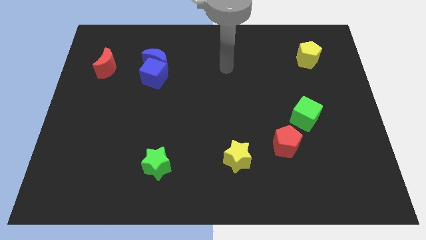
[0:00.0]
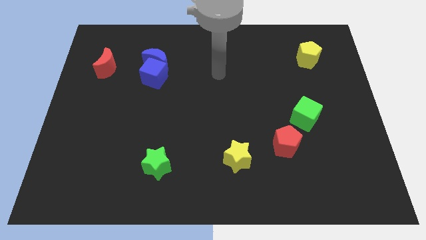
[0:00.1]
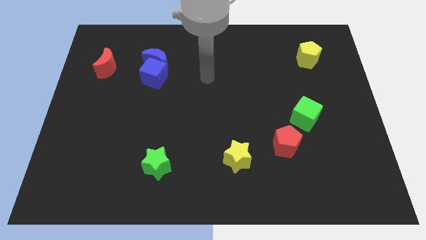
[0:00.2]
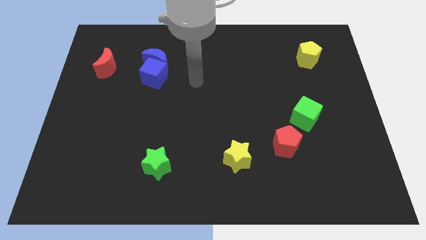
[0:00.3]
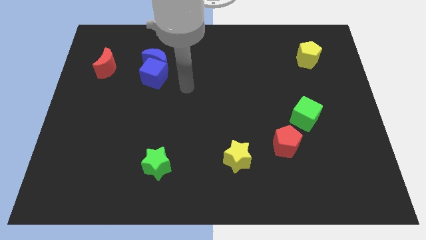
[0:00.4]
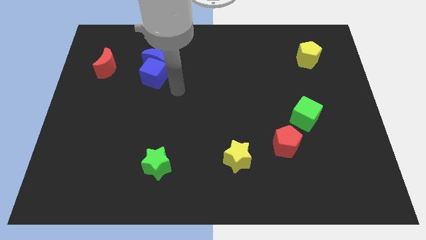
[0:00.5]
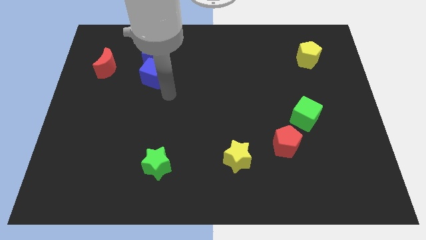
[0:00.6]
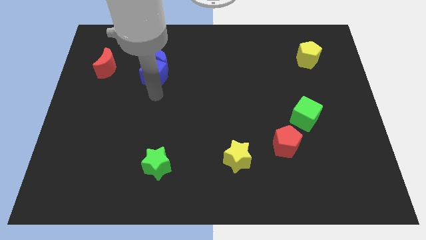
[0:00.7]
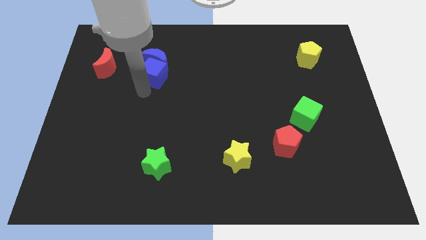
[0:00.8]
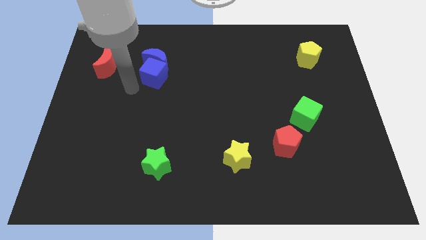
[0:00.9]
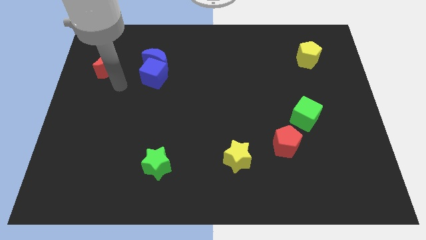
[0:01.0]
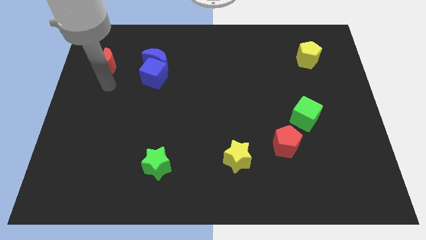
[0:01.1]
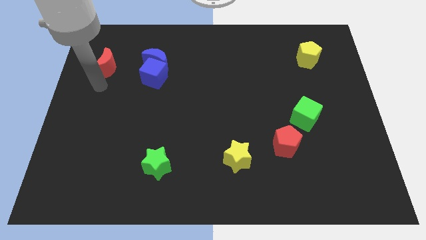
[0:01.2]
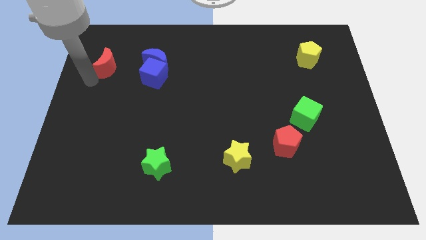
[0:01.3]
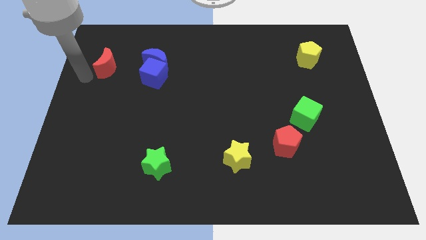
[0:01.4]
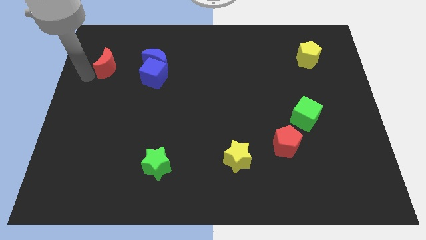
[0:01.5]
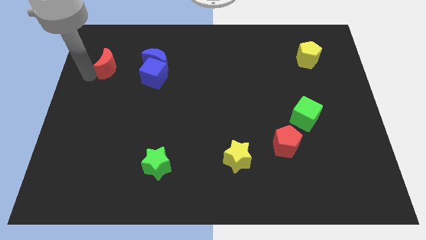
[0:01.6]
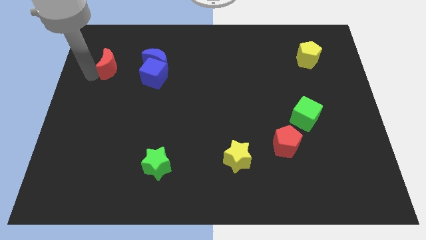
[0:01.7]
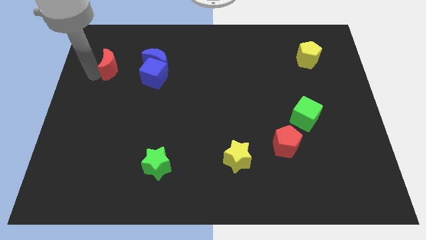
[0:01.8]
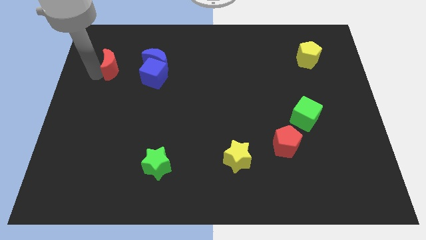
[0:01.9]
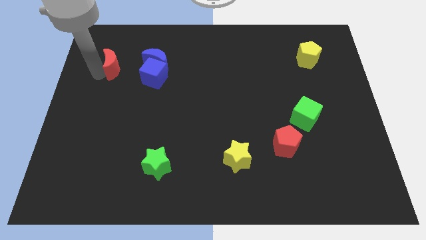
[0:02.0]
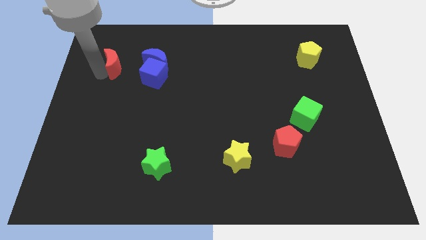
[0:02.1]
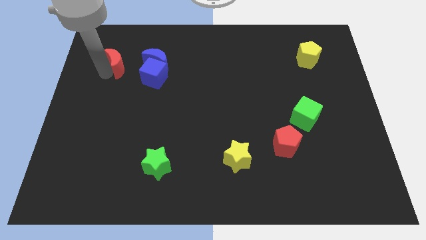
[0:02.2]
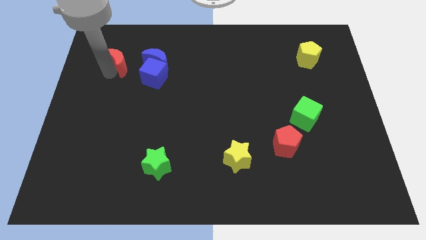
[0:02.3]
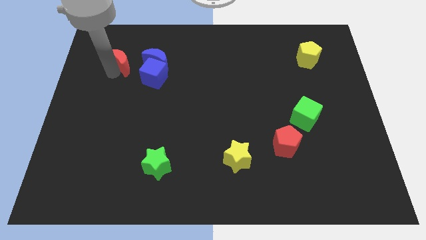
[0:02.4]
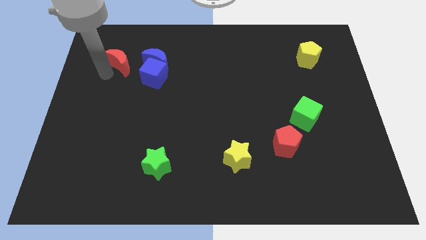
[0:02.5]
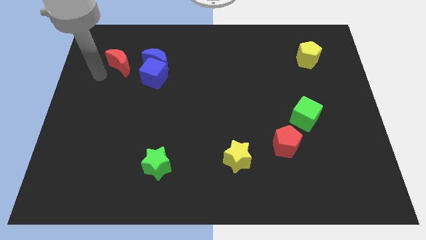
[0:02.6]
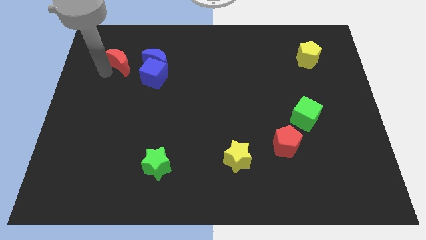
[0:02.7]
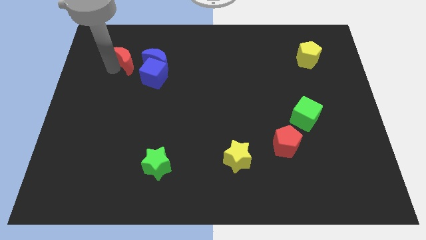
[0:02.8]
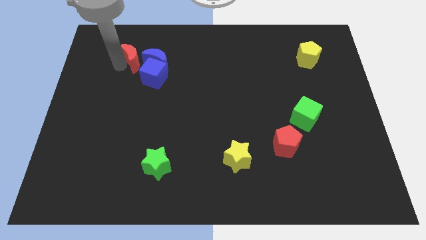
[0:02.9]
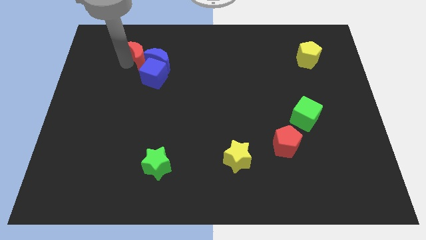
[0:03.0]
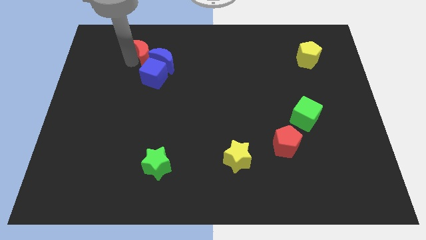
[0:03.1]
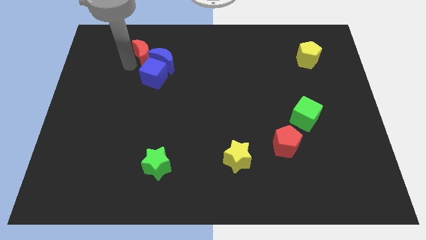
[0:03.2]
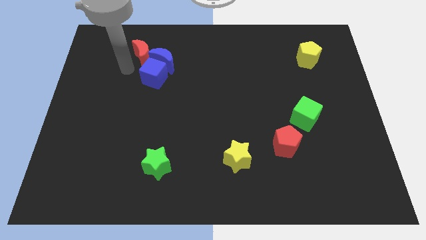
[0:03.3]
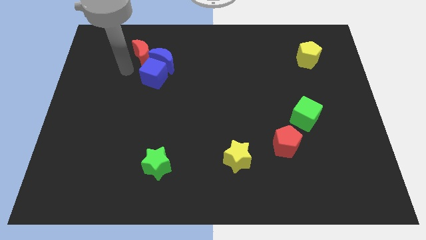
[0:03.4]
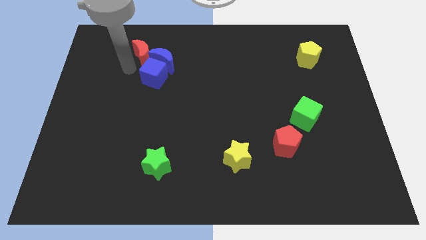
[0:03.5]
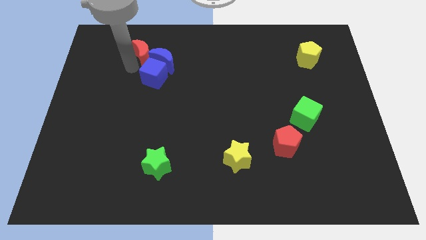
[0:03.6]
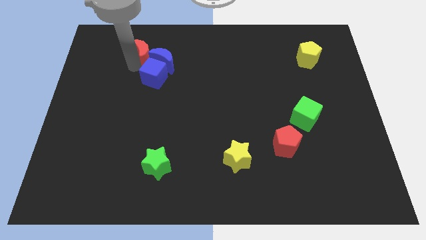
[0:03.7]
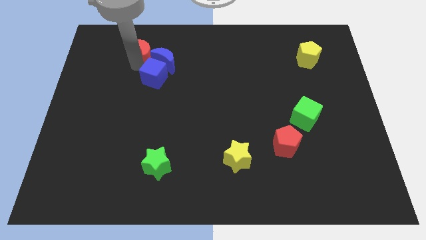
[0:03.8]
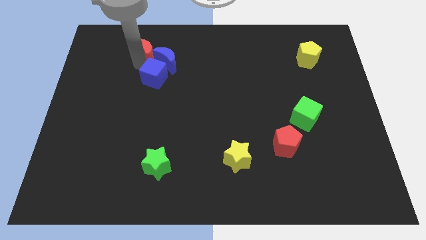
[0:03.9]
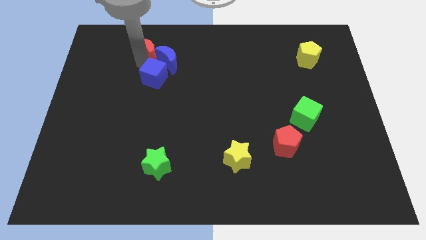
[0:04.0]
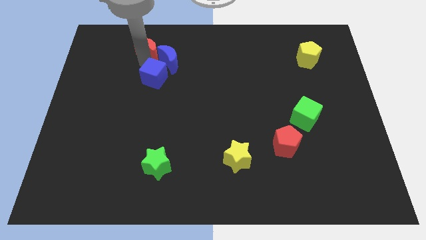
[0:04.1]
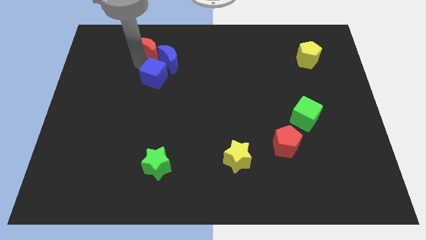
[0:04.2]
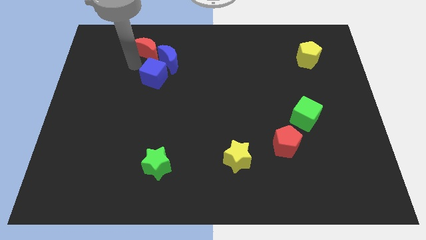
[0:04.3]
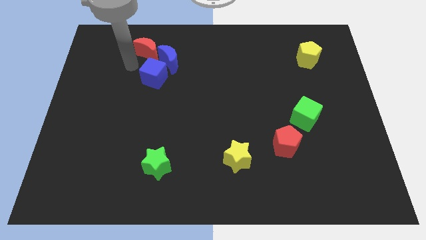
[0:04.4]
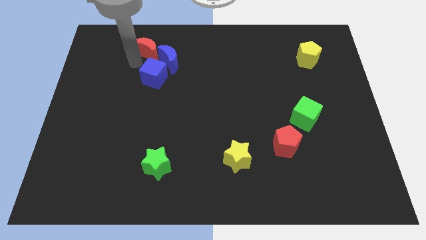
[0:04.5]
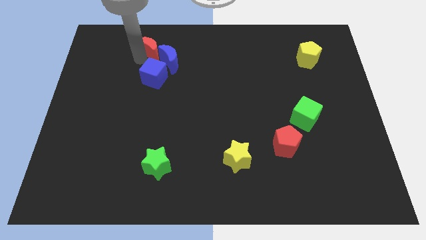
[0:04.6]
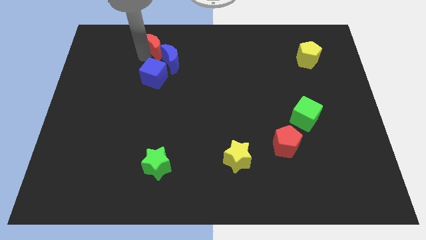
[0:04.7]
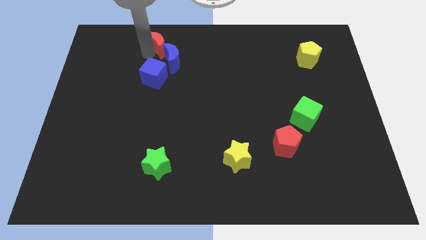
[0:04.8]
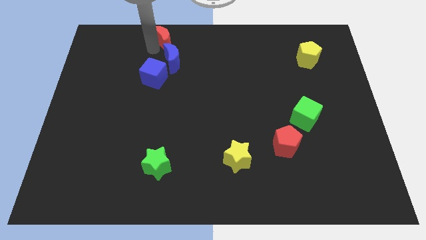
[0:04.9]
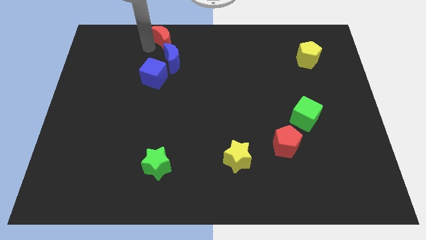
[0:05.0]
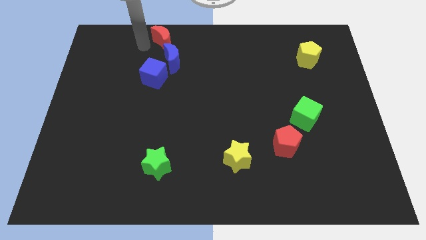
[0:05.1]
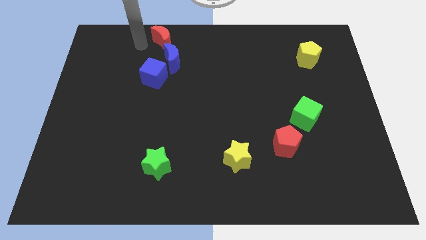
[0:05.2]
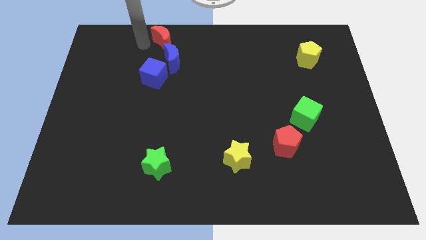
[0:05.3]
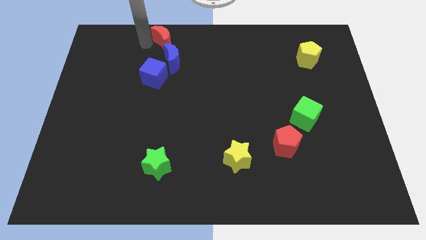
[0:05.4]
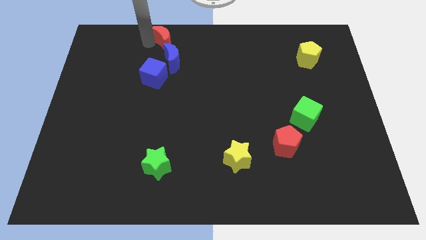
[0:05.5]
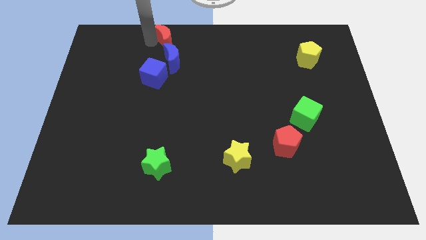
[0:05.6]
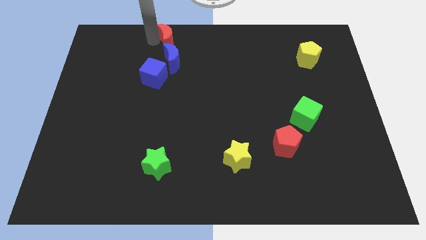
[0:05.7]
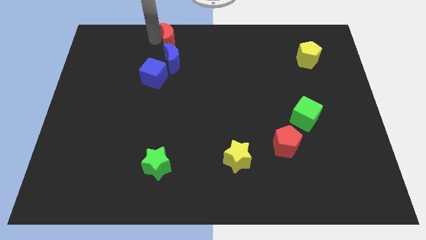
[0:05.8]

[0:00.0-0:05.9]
slide the red moon to the towards your base
